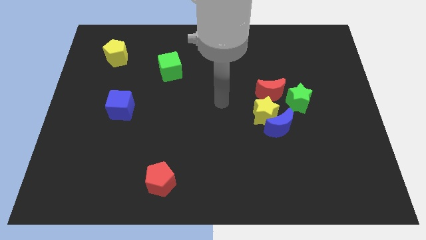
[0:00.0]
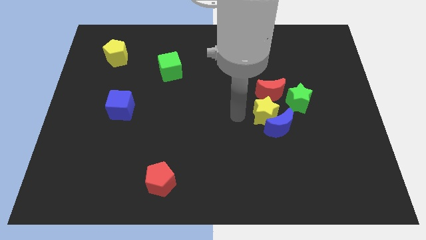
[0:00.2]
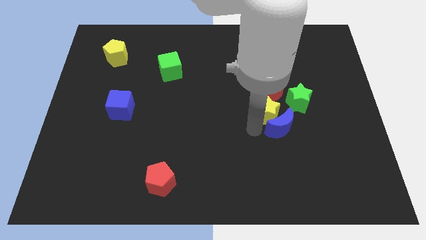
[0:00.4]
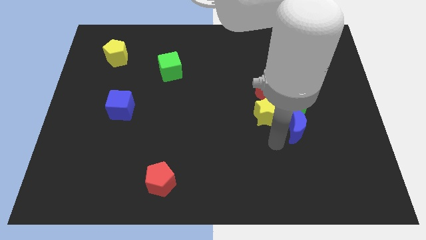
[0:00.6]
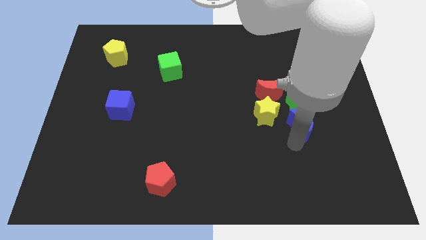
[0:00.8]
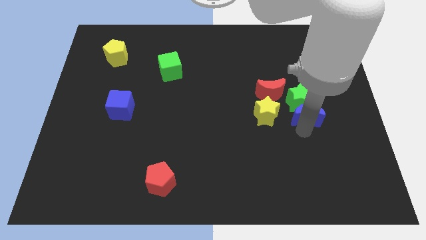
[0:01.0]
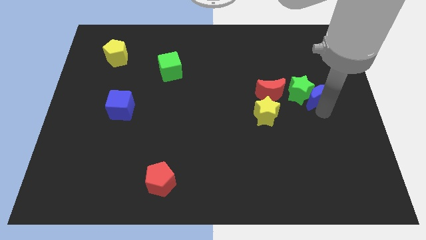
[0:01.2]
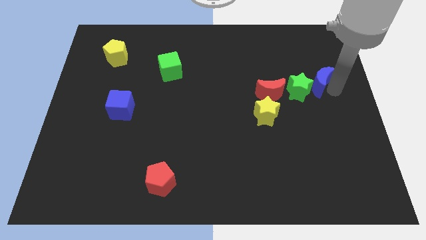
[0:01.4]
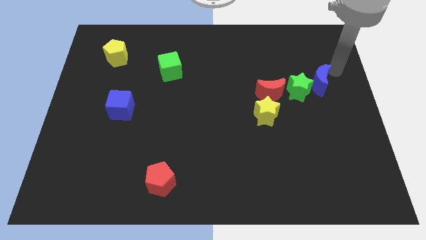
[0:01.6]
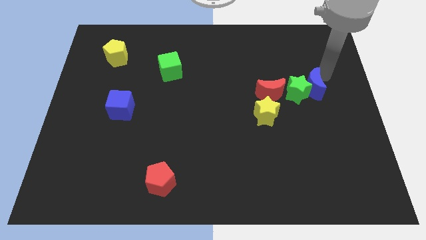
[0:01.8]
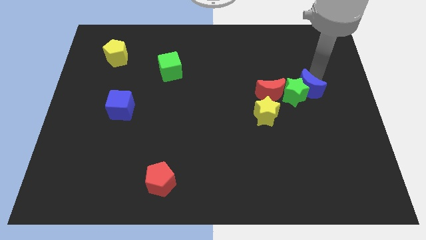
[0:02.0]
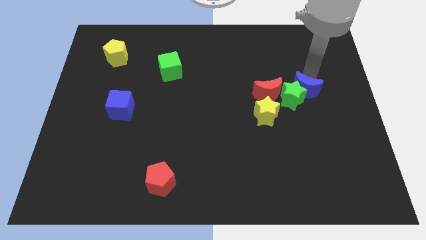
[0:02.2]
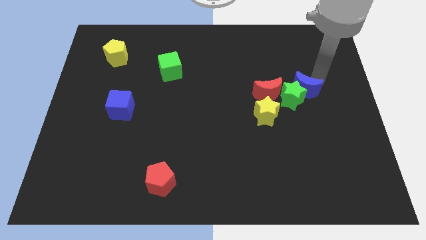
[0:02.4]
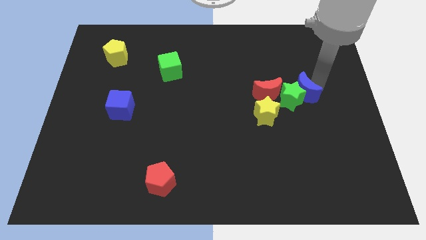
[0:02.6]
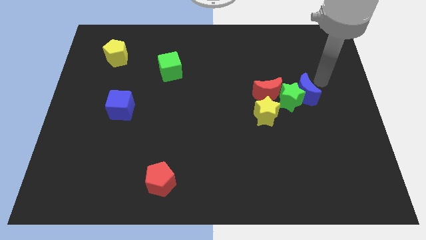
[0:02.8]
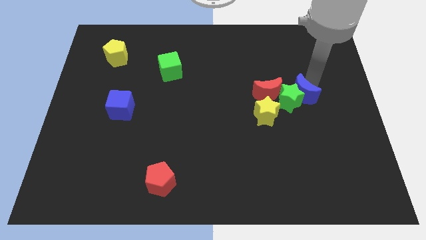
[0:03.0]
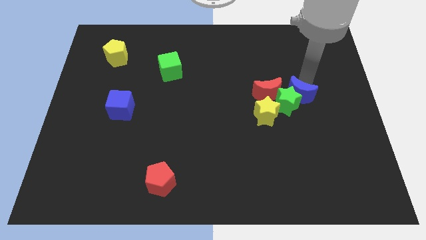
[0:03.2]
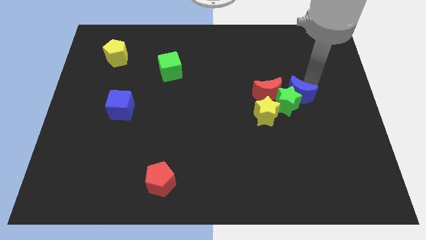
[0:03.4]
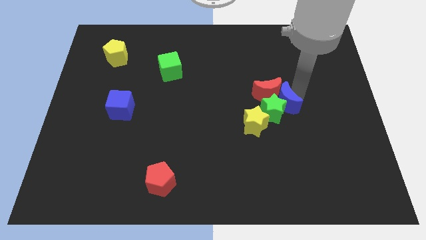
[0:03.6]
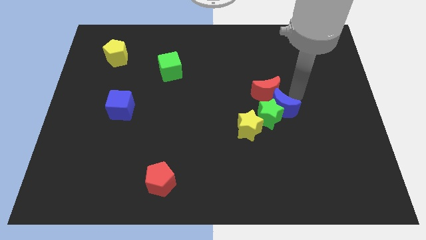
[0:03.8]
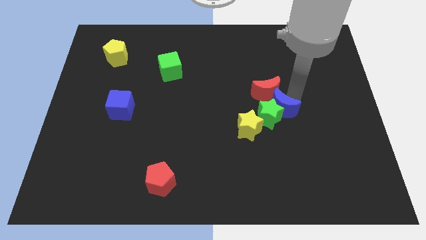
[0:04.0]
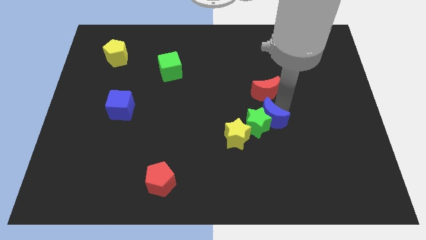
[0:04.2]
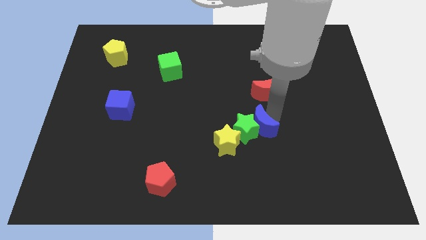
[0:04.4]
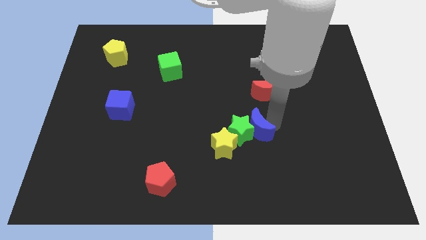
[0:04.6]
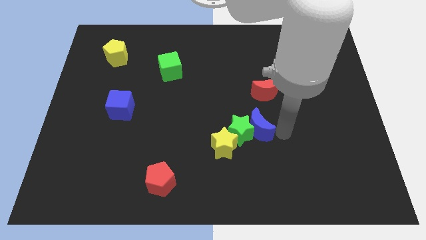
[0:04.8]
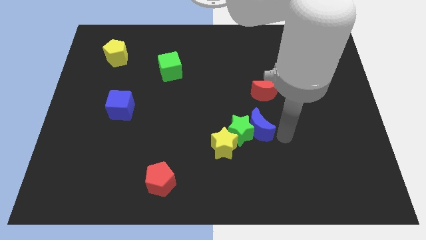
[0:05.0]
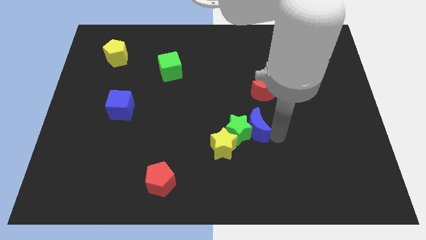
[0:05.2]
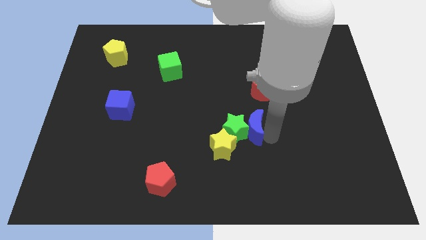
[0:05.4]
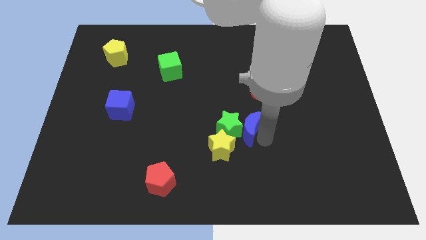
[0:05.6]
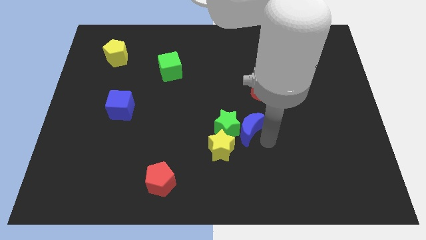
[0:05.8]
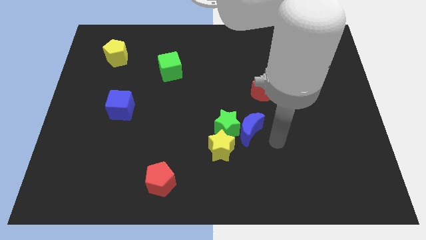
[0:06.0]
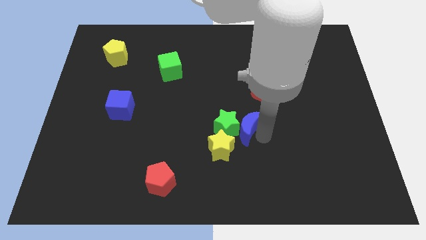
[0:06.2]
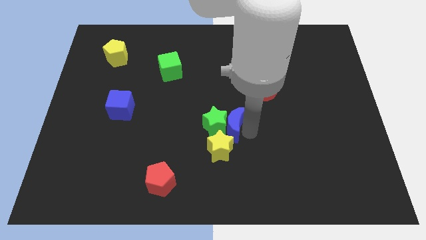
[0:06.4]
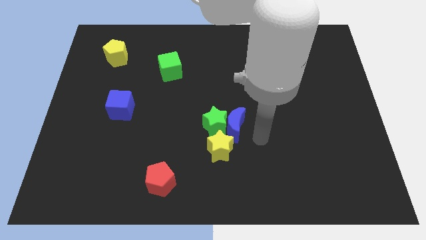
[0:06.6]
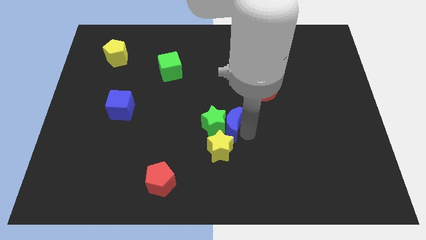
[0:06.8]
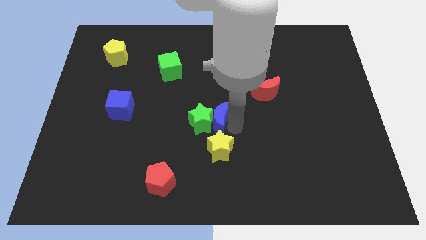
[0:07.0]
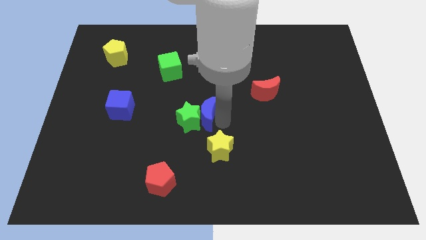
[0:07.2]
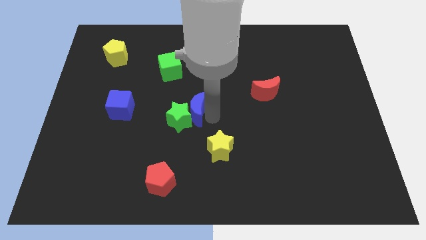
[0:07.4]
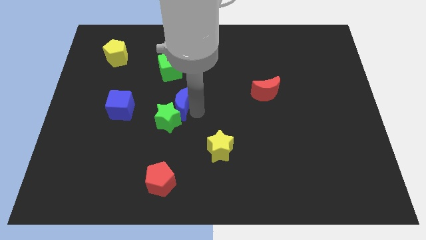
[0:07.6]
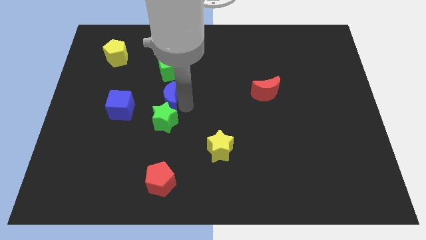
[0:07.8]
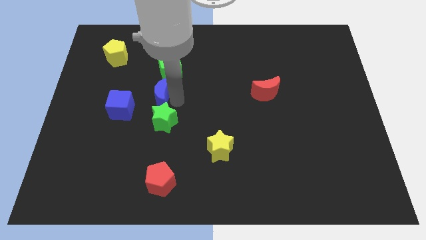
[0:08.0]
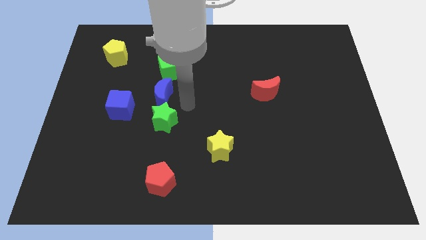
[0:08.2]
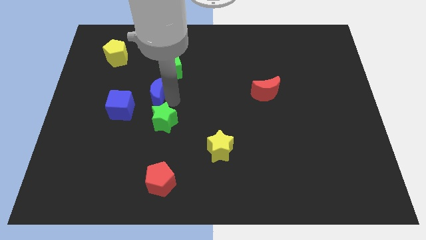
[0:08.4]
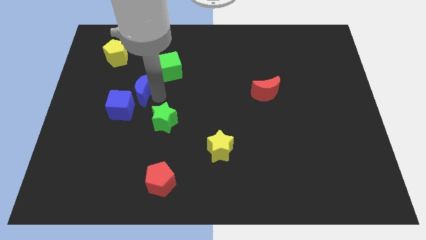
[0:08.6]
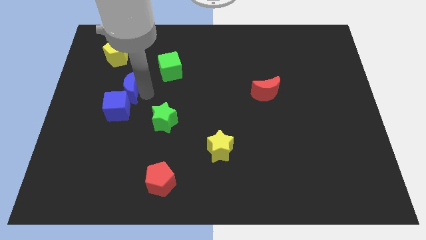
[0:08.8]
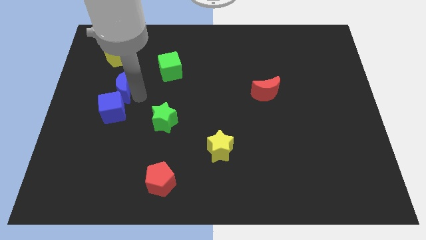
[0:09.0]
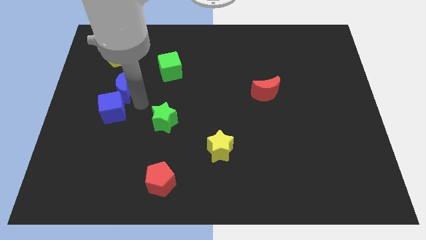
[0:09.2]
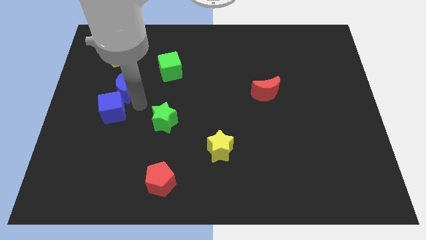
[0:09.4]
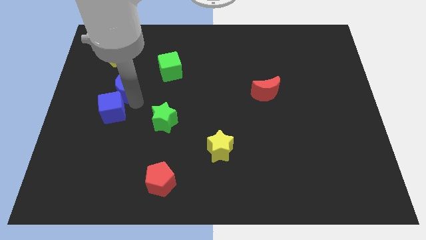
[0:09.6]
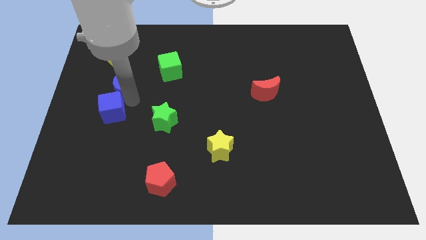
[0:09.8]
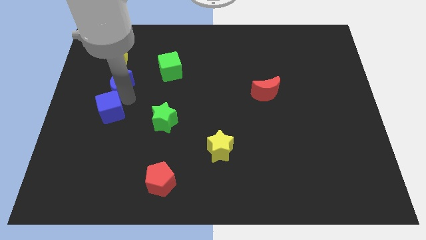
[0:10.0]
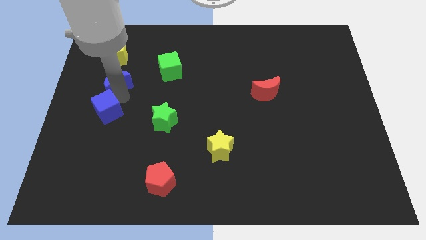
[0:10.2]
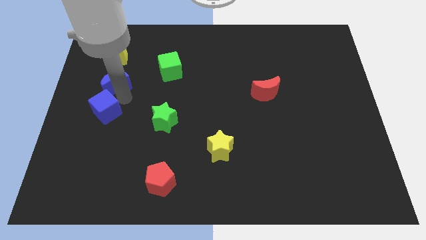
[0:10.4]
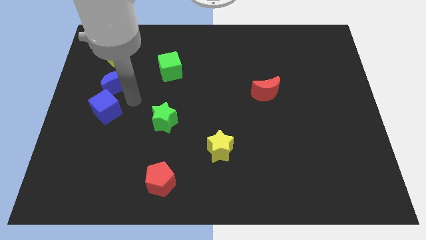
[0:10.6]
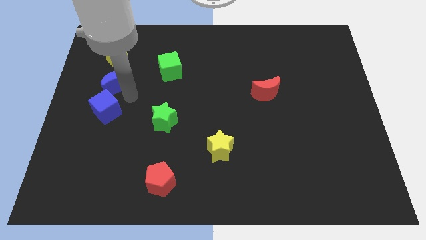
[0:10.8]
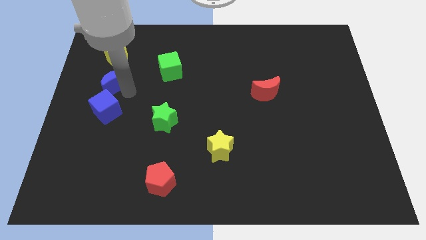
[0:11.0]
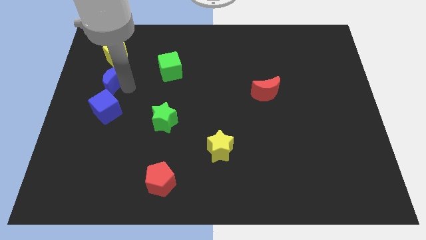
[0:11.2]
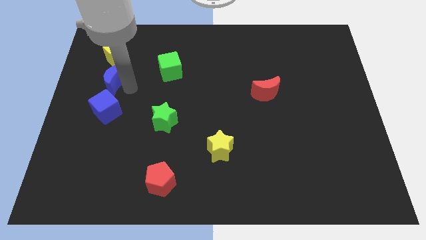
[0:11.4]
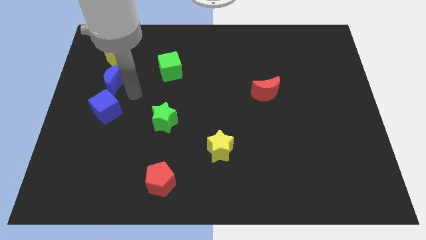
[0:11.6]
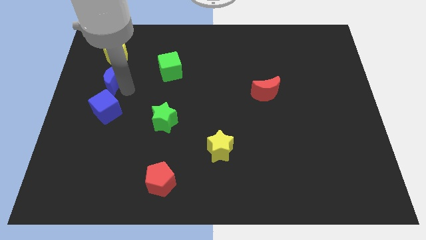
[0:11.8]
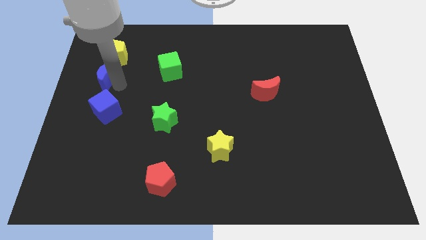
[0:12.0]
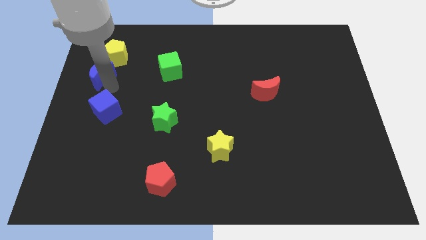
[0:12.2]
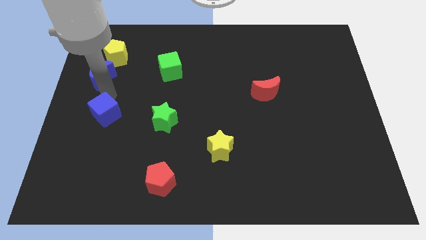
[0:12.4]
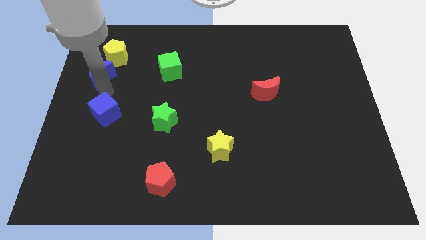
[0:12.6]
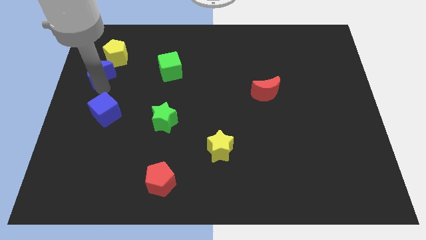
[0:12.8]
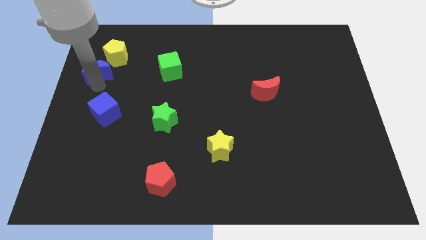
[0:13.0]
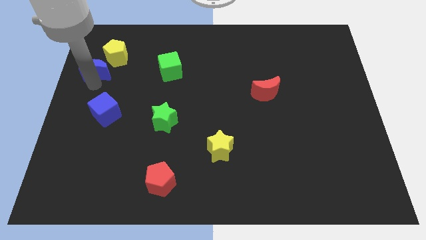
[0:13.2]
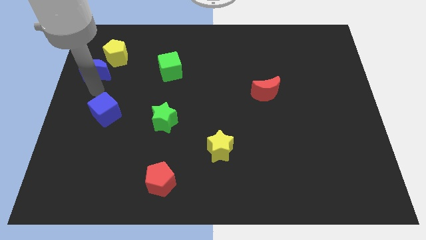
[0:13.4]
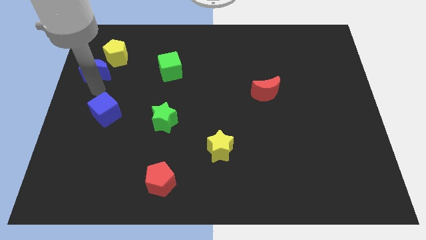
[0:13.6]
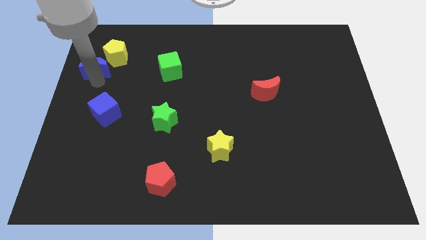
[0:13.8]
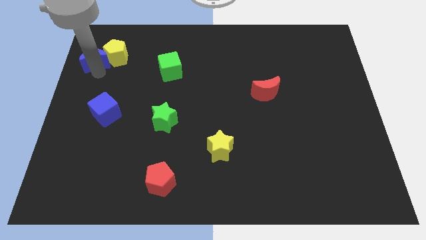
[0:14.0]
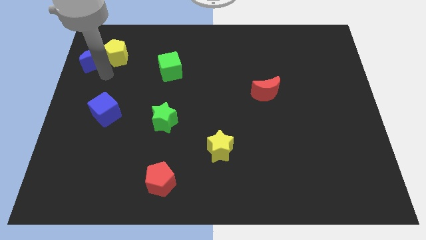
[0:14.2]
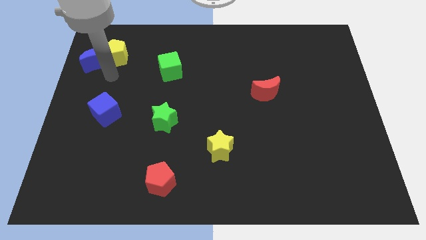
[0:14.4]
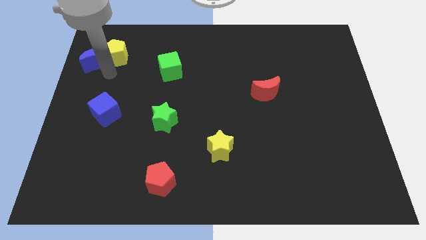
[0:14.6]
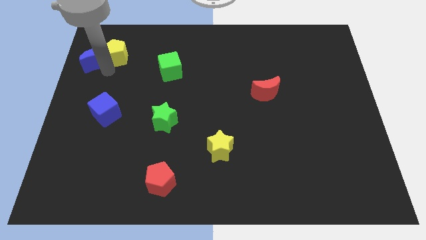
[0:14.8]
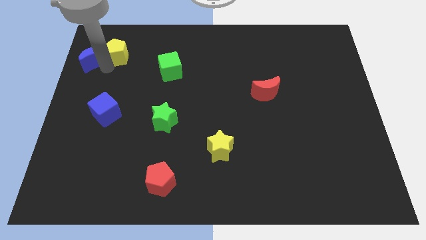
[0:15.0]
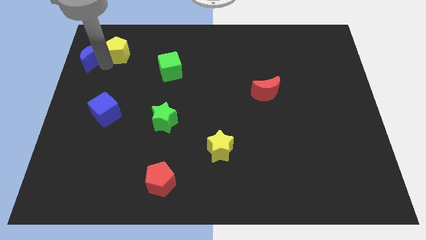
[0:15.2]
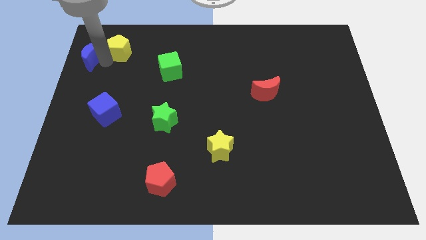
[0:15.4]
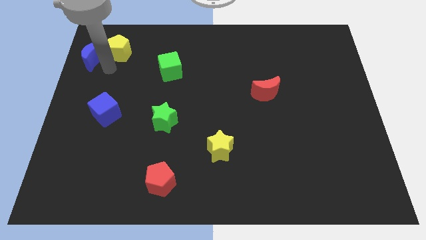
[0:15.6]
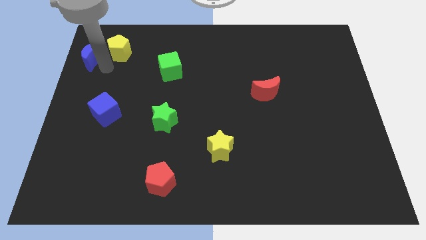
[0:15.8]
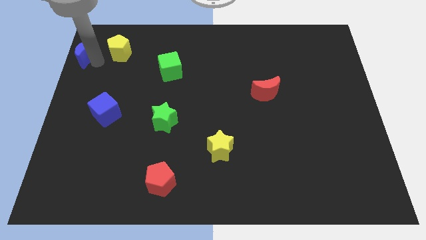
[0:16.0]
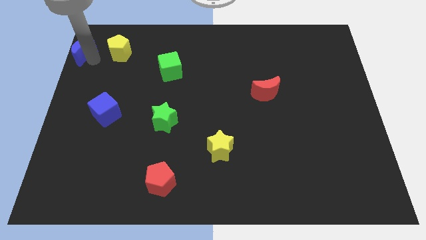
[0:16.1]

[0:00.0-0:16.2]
move the blue moon to the upper left corner
